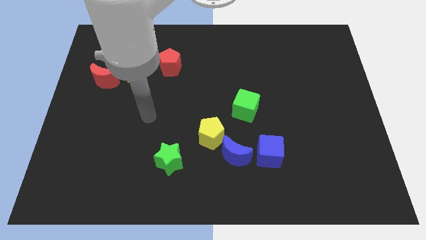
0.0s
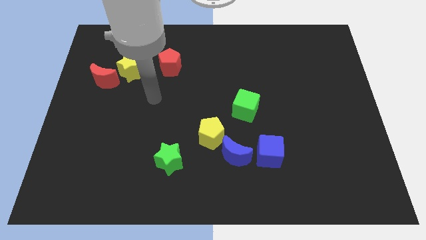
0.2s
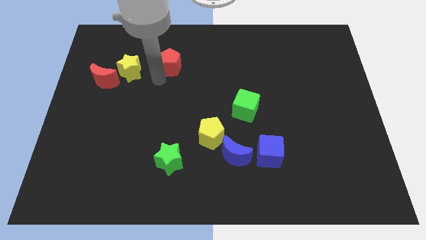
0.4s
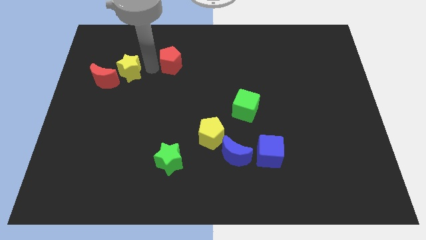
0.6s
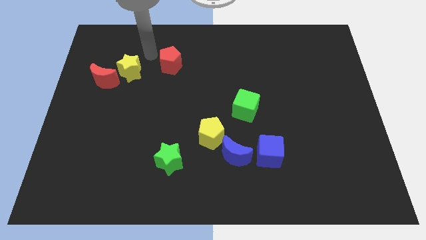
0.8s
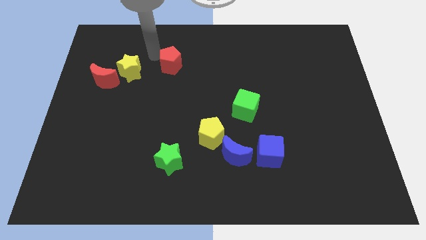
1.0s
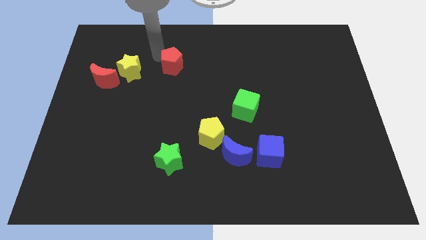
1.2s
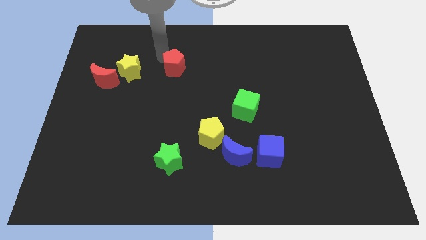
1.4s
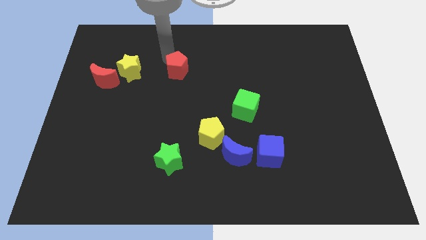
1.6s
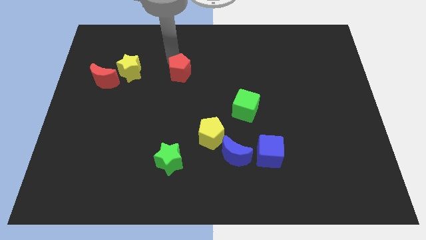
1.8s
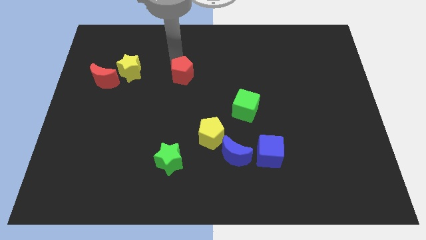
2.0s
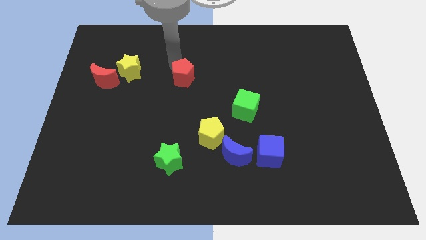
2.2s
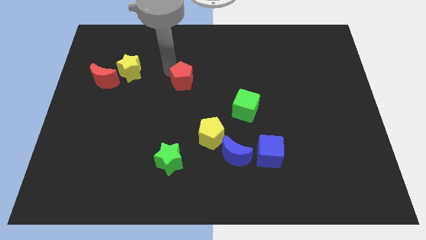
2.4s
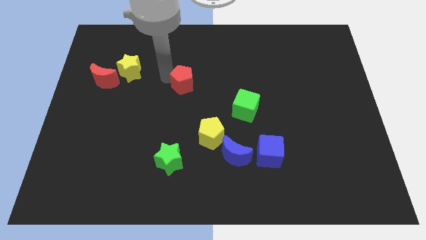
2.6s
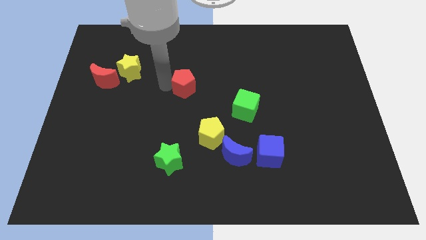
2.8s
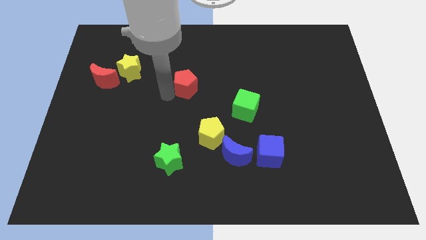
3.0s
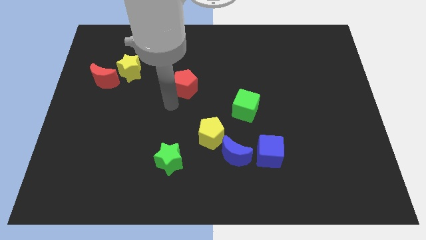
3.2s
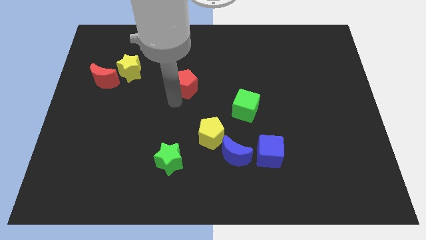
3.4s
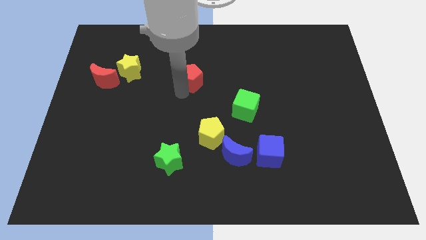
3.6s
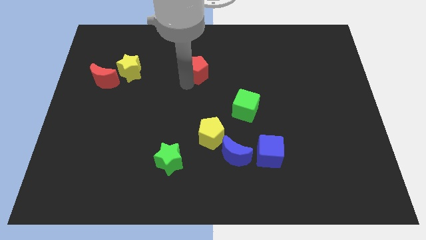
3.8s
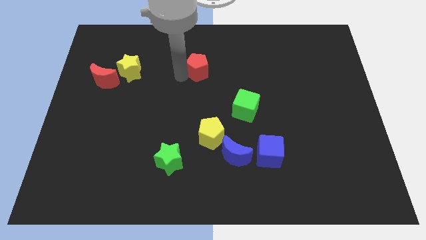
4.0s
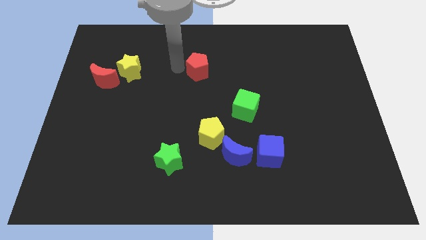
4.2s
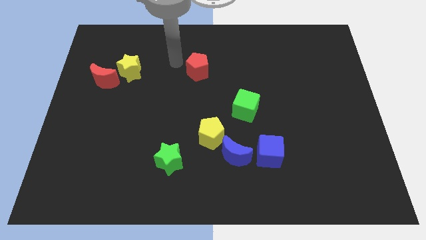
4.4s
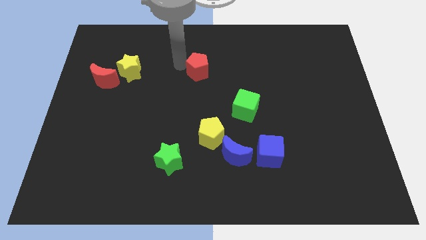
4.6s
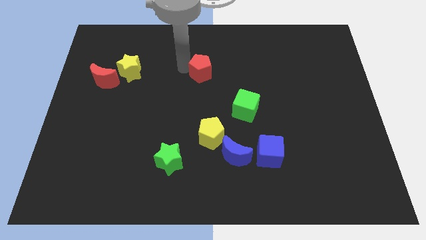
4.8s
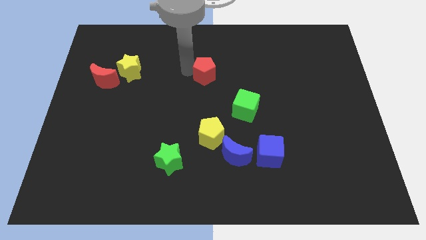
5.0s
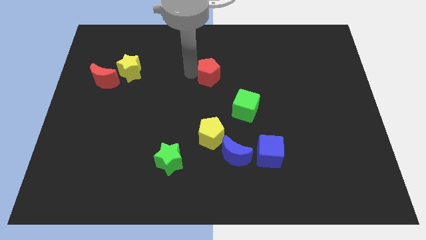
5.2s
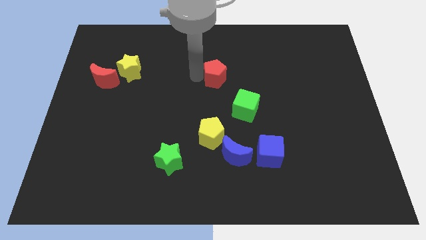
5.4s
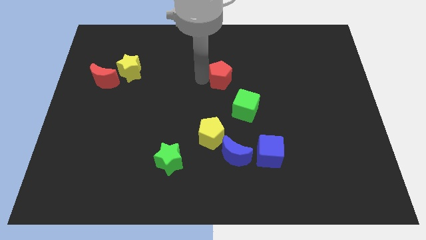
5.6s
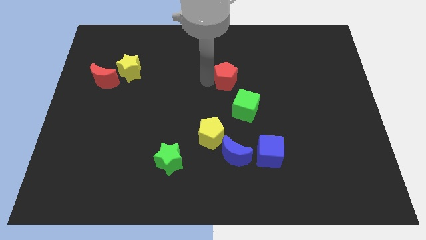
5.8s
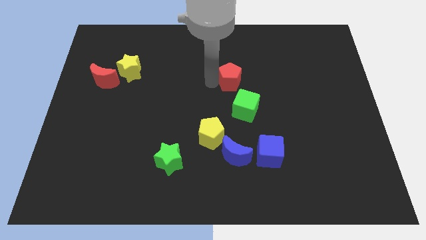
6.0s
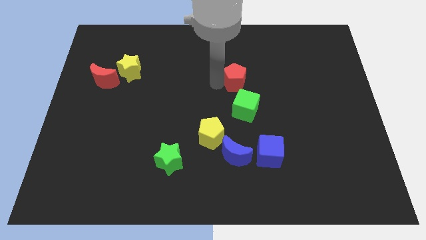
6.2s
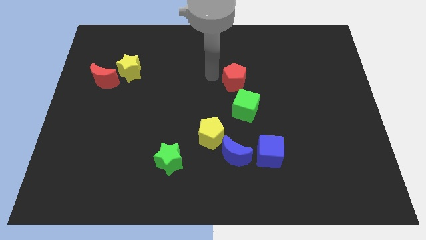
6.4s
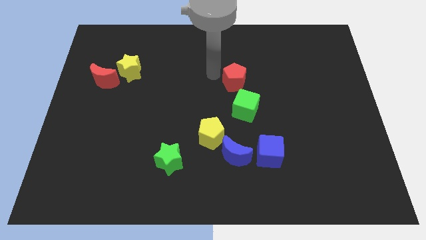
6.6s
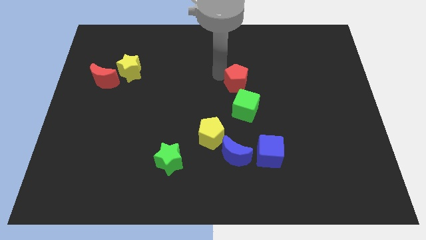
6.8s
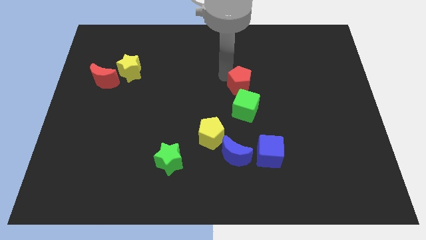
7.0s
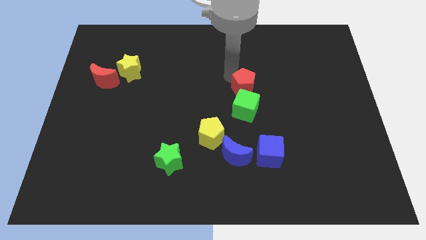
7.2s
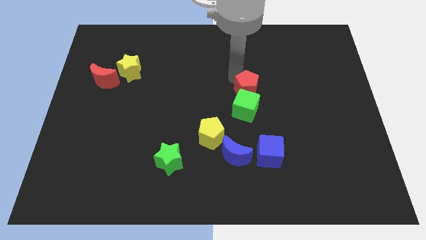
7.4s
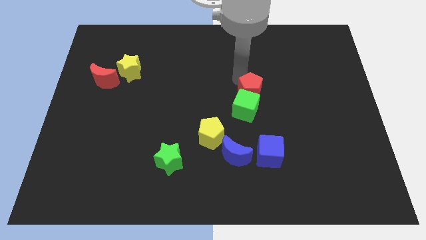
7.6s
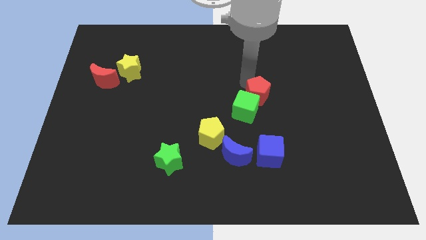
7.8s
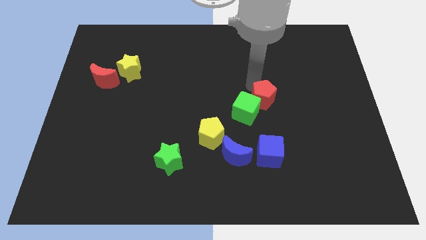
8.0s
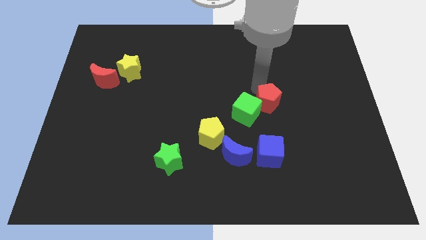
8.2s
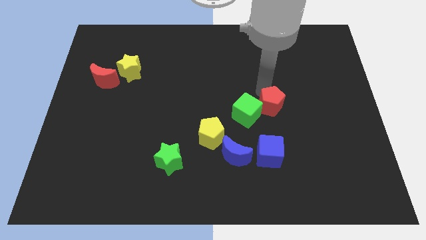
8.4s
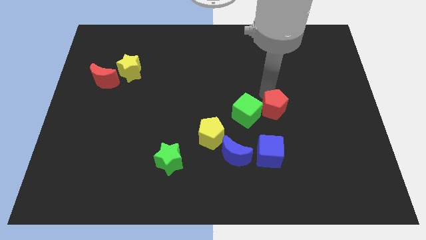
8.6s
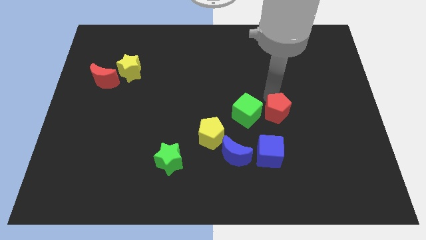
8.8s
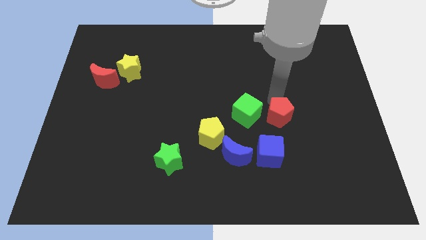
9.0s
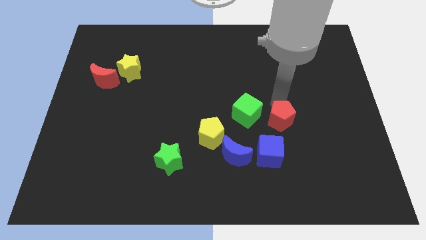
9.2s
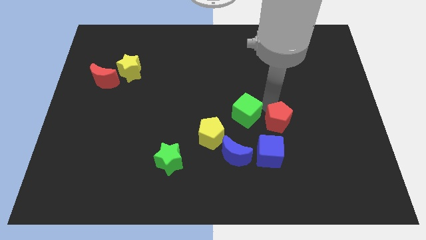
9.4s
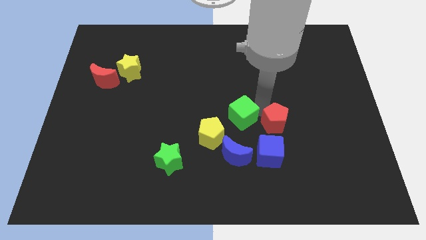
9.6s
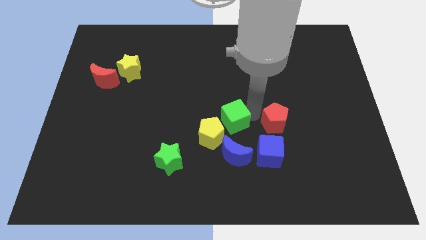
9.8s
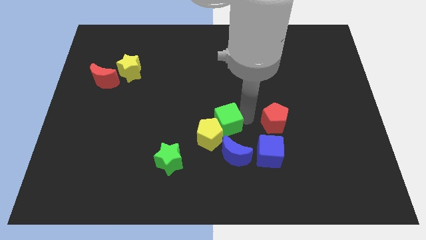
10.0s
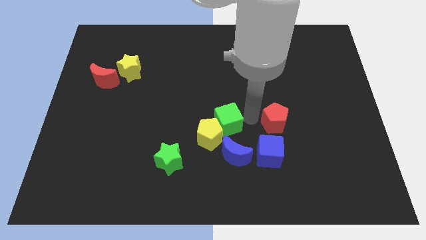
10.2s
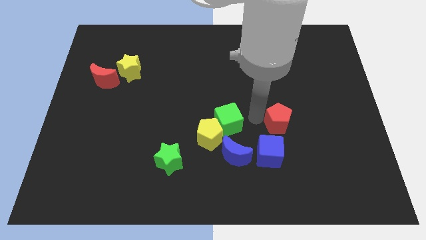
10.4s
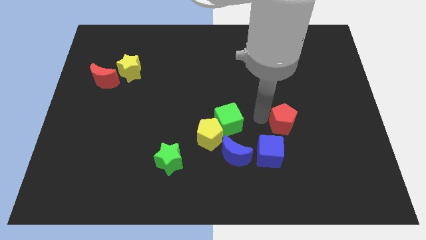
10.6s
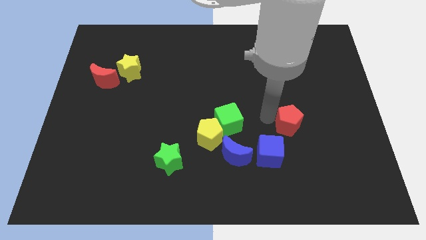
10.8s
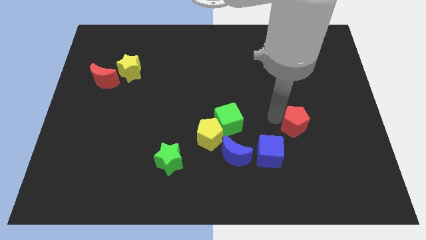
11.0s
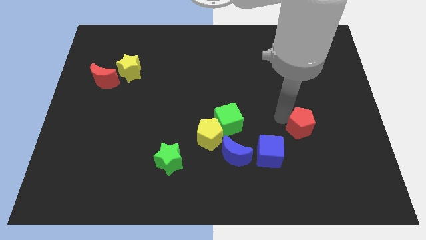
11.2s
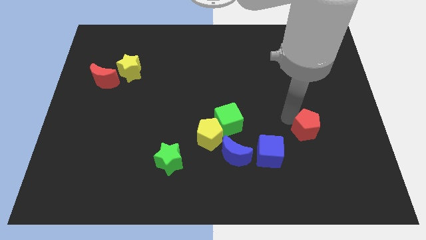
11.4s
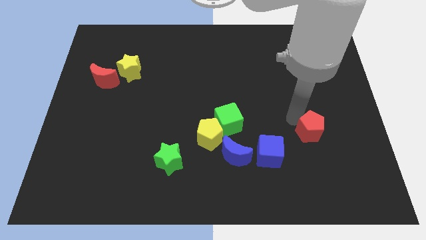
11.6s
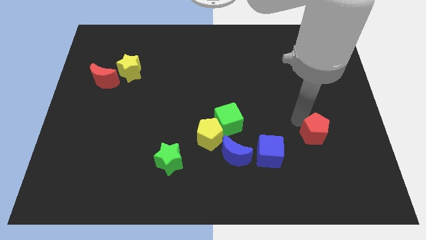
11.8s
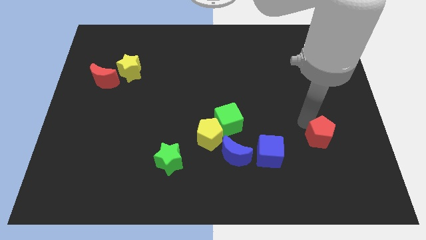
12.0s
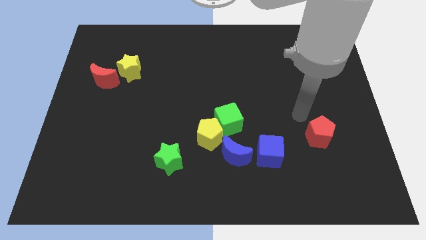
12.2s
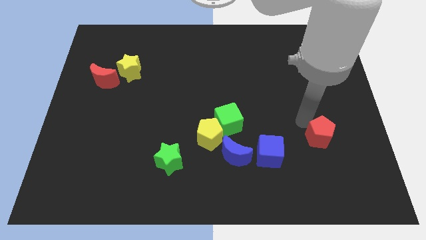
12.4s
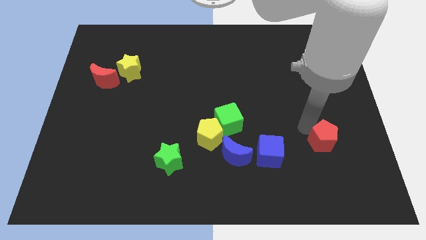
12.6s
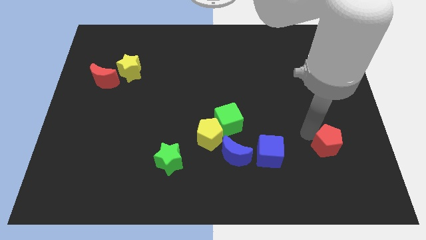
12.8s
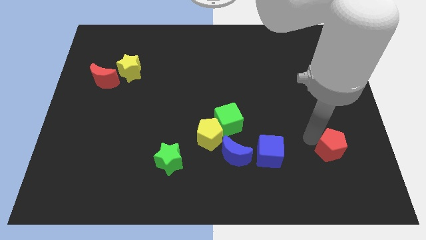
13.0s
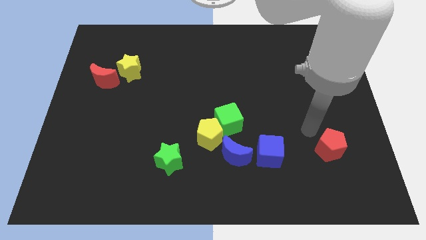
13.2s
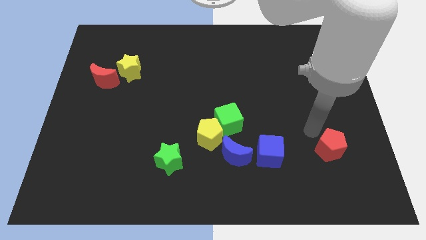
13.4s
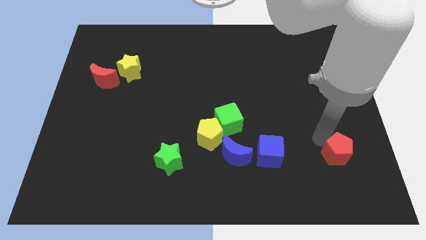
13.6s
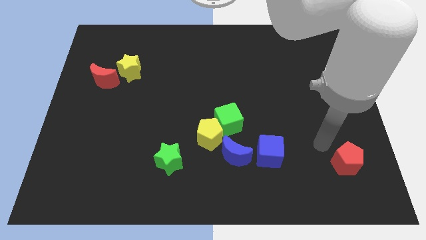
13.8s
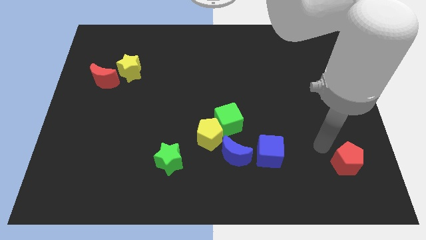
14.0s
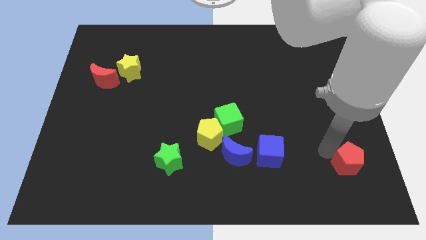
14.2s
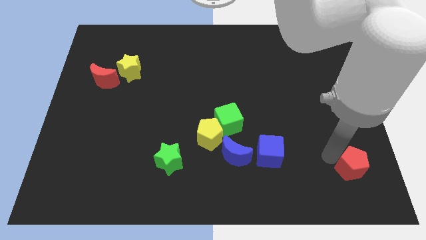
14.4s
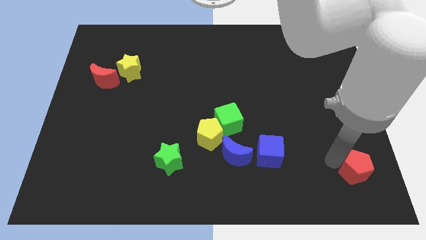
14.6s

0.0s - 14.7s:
put the red pentagon to the bottom right
